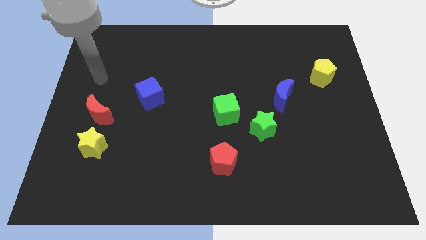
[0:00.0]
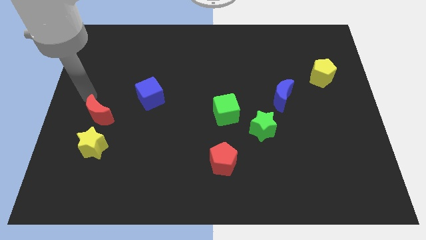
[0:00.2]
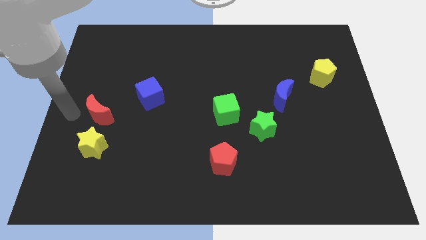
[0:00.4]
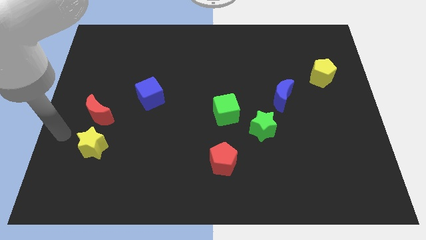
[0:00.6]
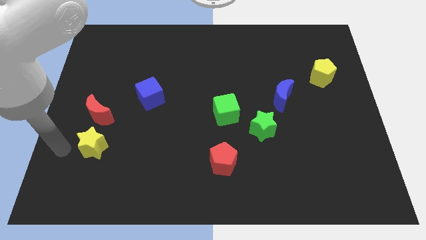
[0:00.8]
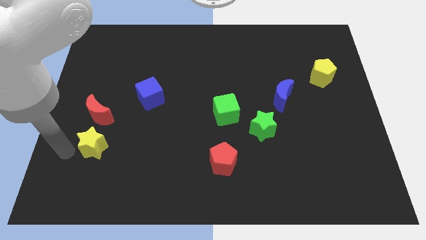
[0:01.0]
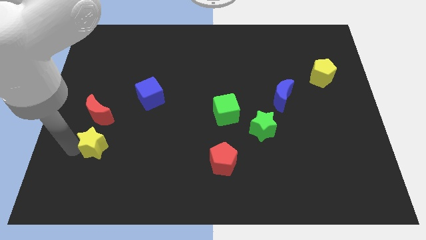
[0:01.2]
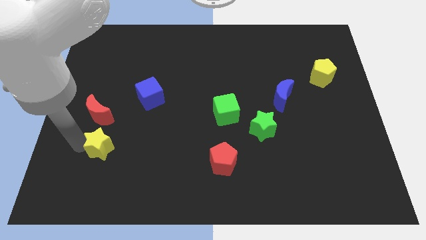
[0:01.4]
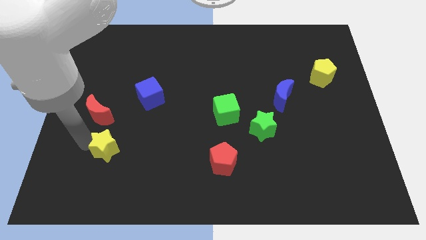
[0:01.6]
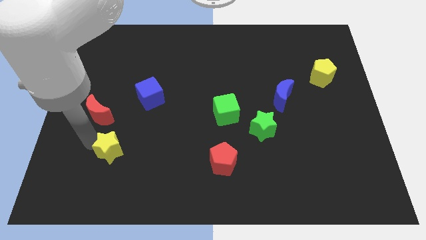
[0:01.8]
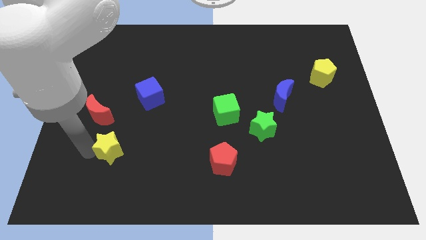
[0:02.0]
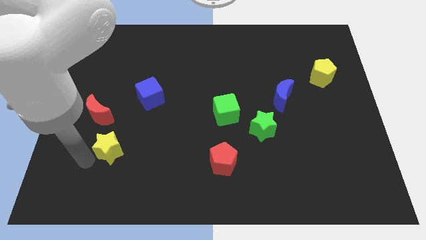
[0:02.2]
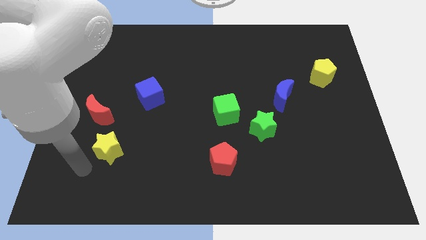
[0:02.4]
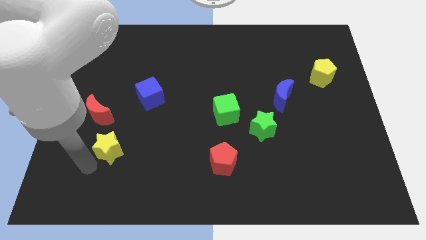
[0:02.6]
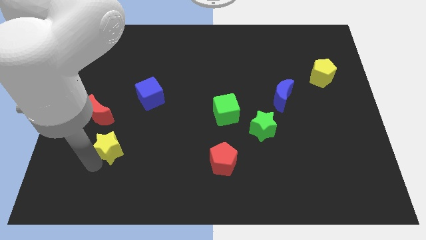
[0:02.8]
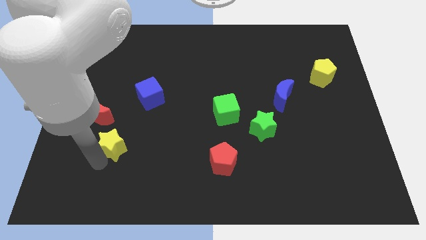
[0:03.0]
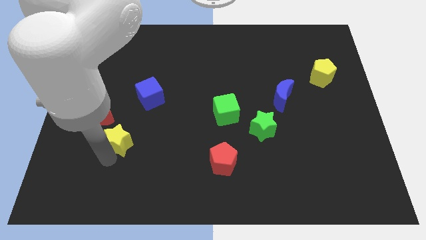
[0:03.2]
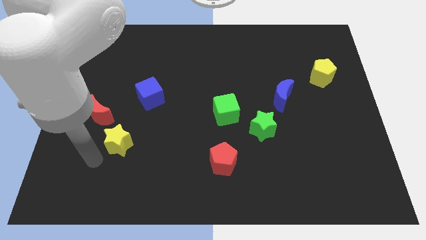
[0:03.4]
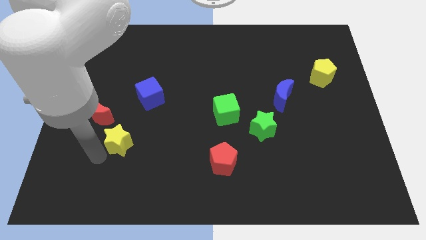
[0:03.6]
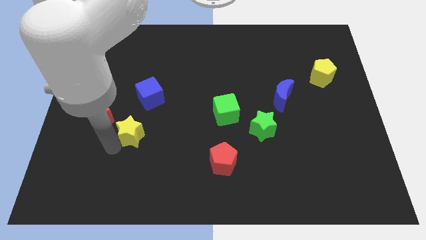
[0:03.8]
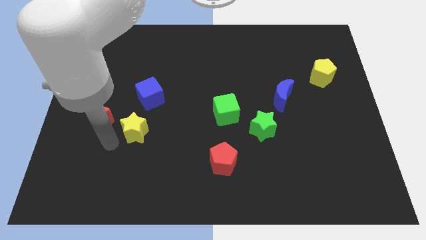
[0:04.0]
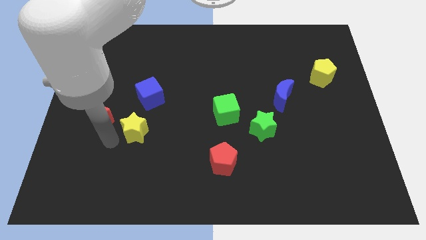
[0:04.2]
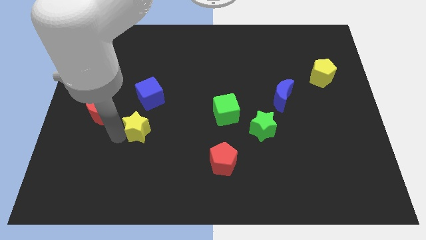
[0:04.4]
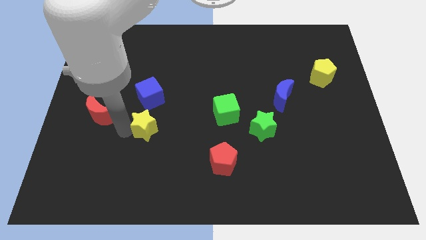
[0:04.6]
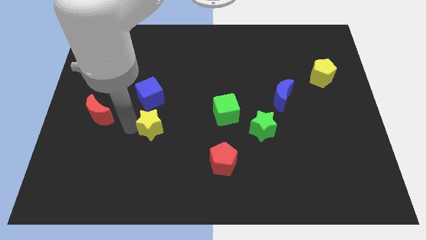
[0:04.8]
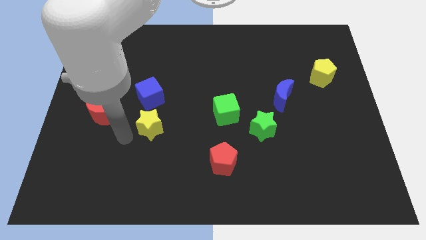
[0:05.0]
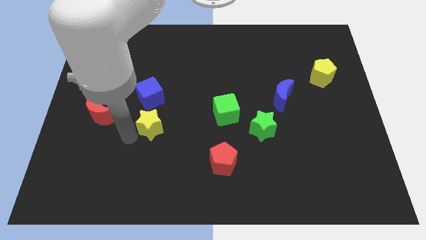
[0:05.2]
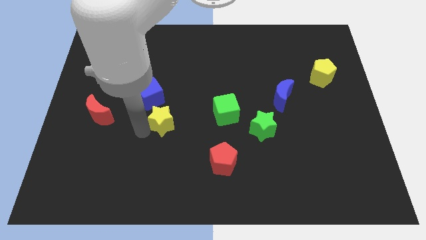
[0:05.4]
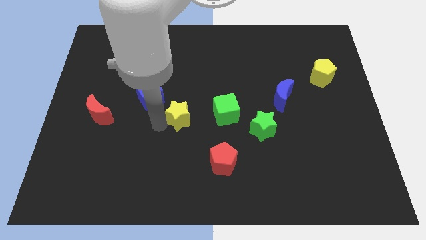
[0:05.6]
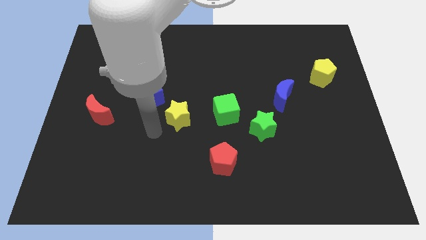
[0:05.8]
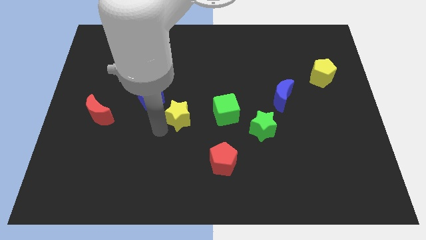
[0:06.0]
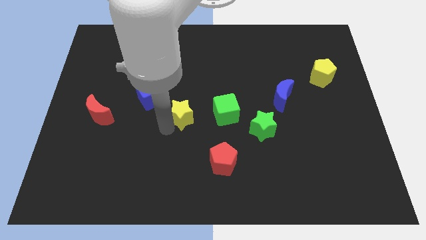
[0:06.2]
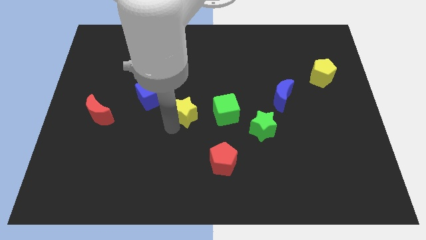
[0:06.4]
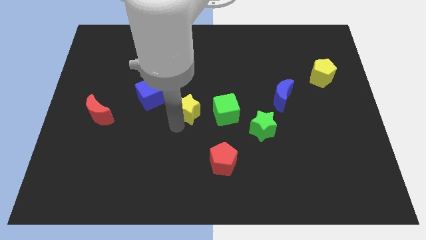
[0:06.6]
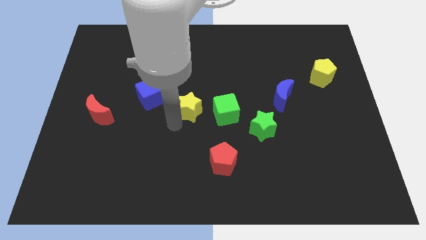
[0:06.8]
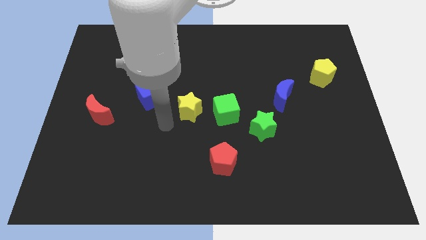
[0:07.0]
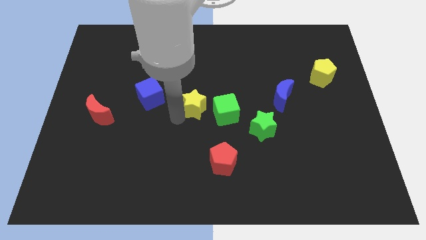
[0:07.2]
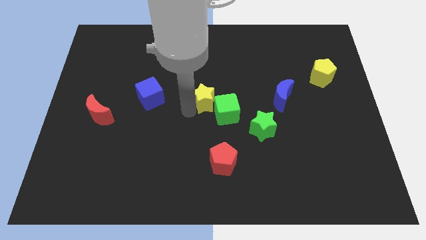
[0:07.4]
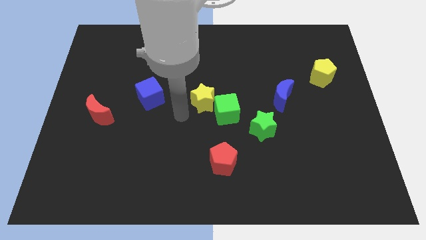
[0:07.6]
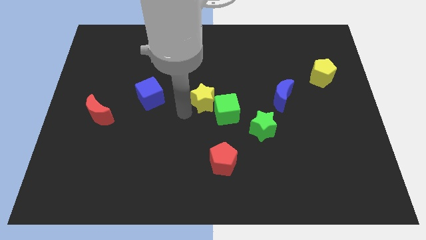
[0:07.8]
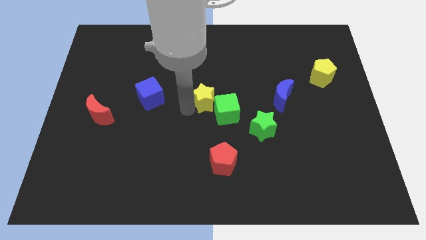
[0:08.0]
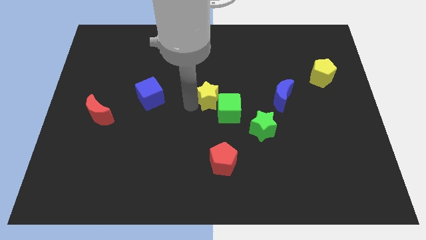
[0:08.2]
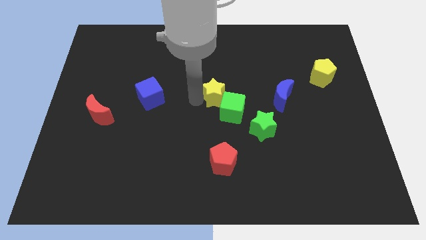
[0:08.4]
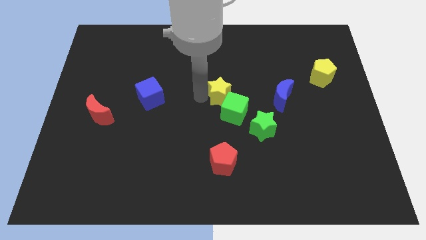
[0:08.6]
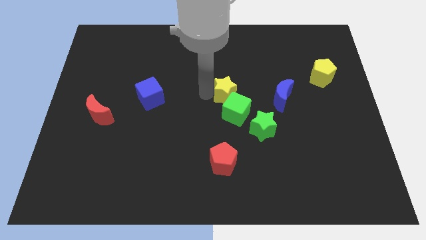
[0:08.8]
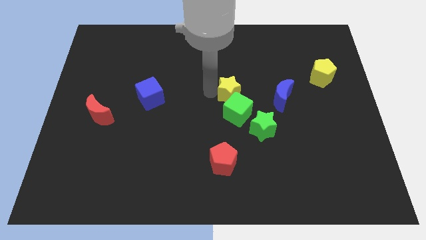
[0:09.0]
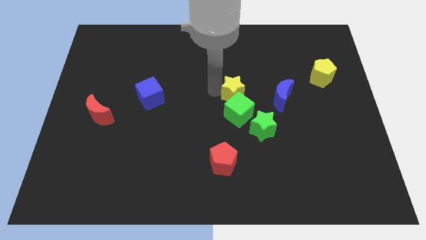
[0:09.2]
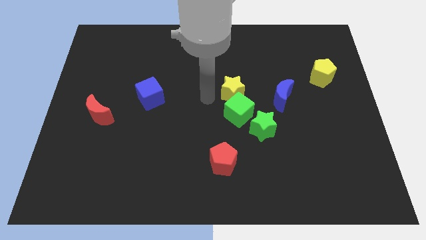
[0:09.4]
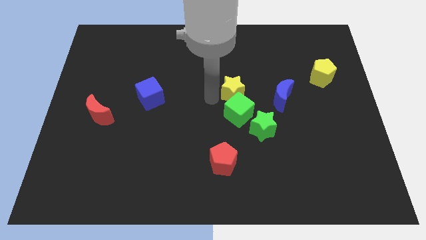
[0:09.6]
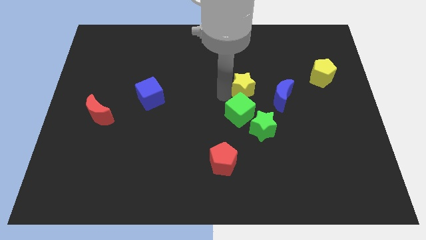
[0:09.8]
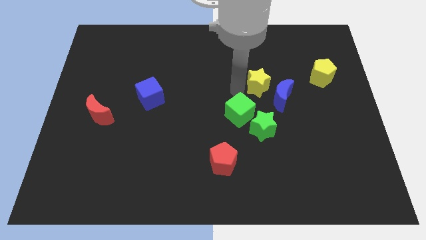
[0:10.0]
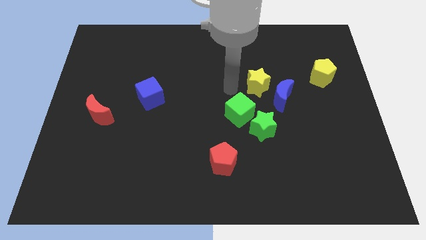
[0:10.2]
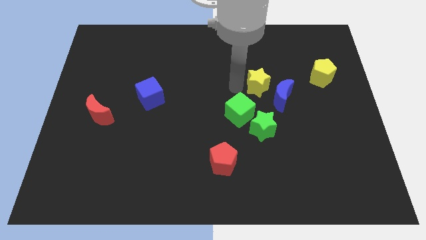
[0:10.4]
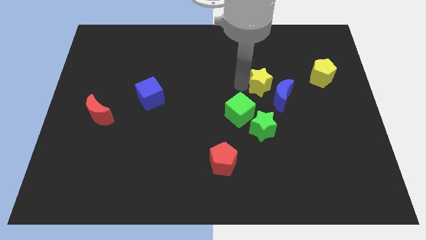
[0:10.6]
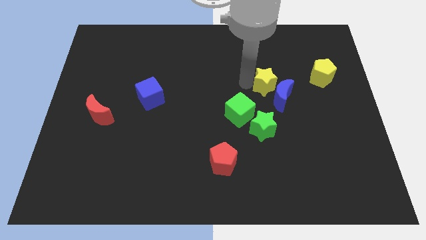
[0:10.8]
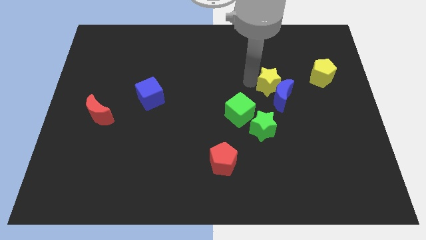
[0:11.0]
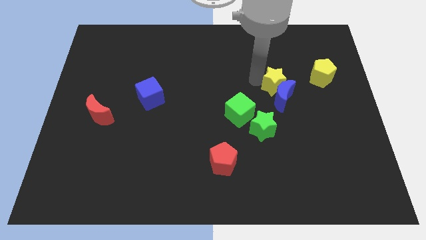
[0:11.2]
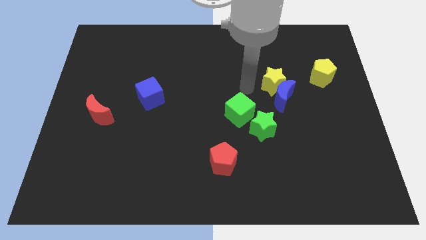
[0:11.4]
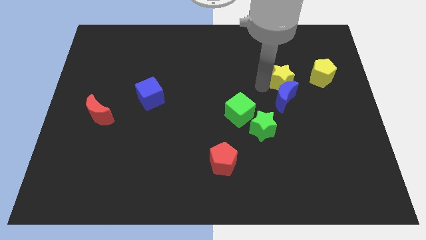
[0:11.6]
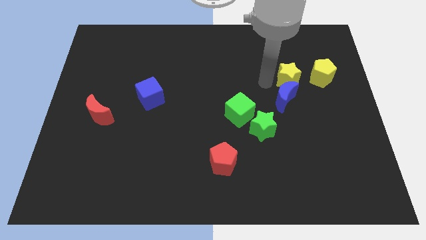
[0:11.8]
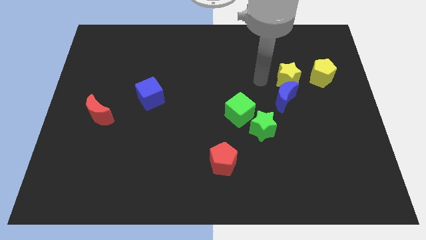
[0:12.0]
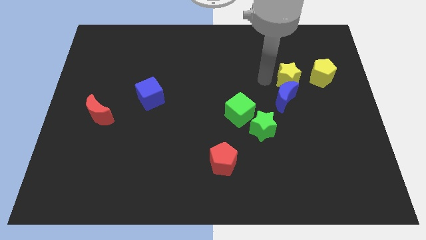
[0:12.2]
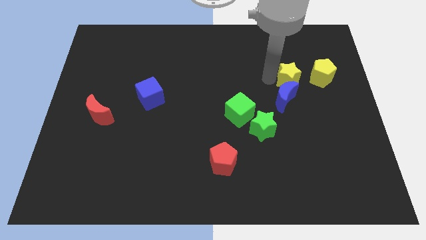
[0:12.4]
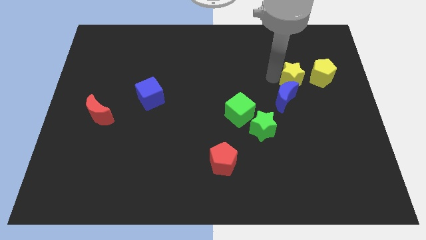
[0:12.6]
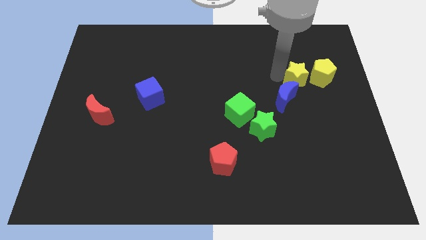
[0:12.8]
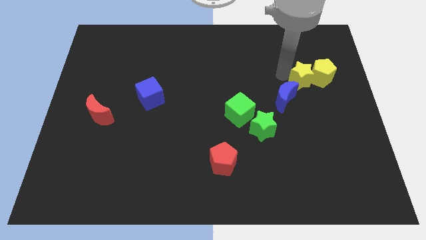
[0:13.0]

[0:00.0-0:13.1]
put the yellow star to the yellow pentagon

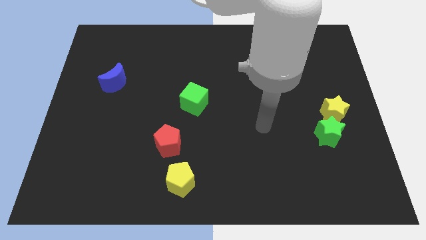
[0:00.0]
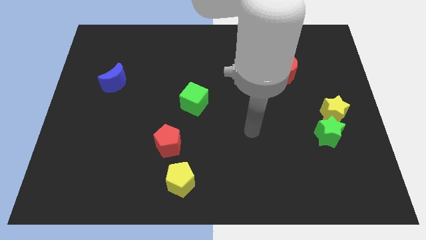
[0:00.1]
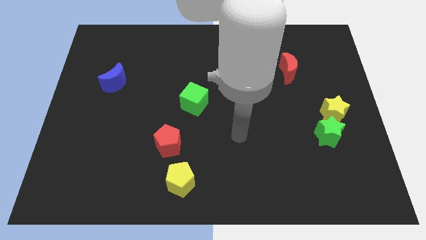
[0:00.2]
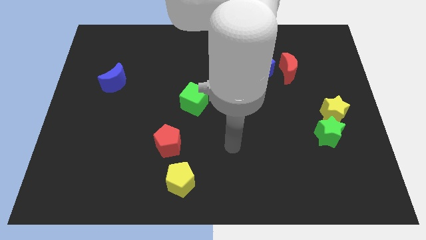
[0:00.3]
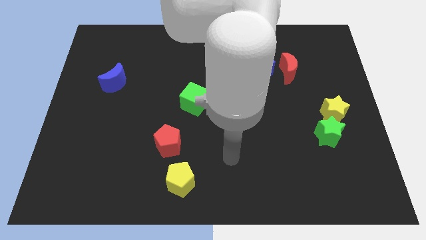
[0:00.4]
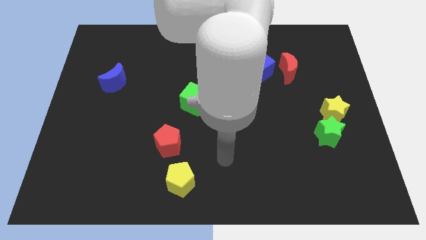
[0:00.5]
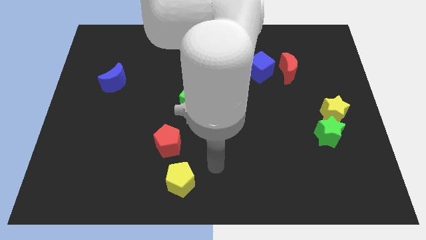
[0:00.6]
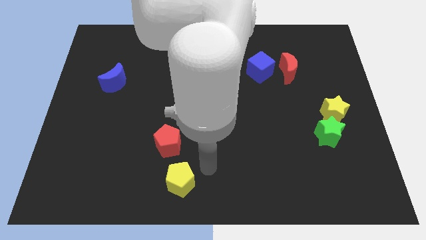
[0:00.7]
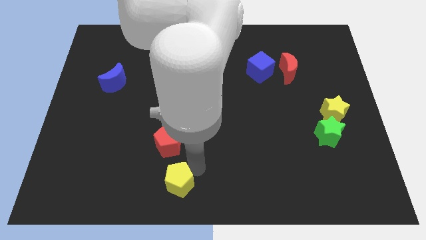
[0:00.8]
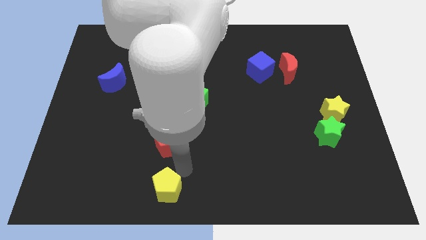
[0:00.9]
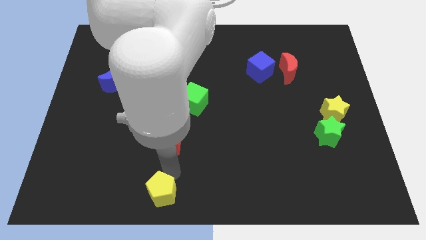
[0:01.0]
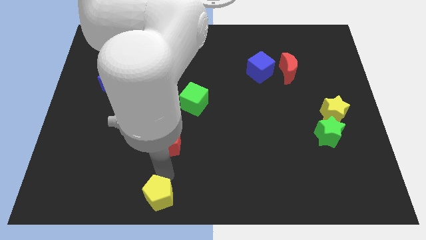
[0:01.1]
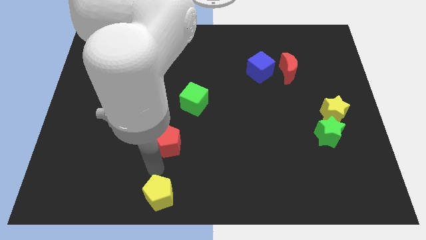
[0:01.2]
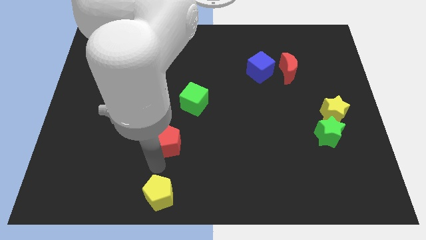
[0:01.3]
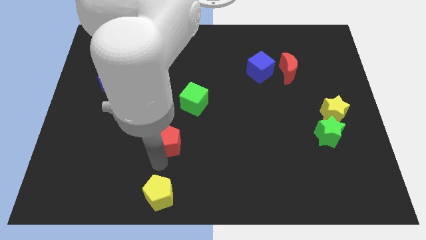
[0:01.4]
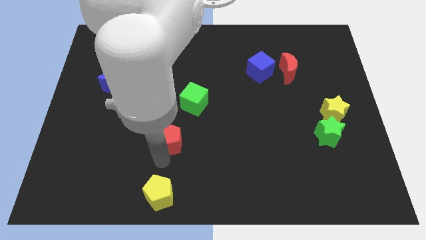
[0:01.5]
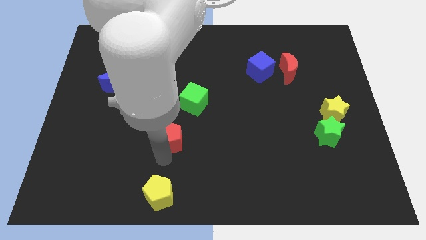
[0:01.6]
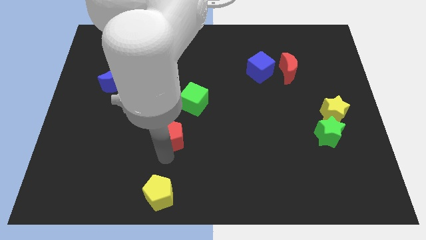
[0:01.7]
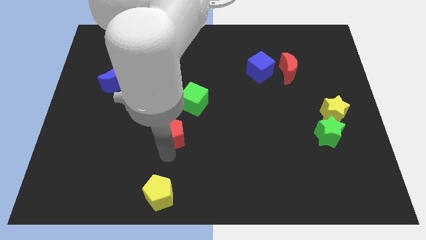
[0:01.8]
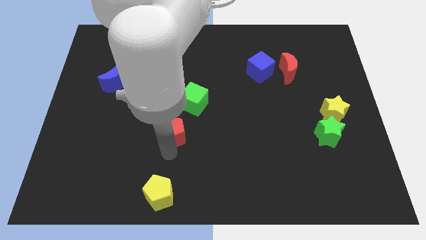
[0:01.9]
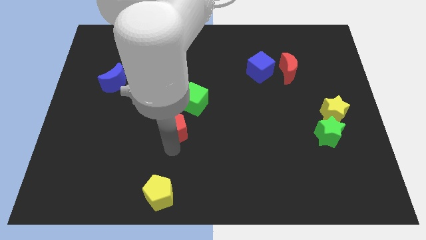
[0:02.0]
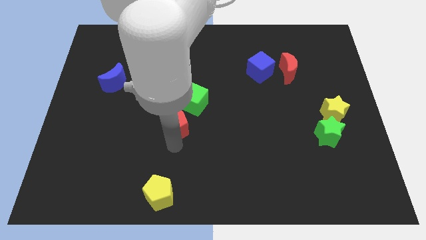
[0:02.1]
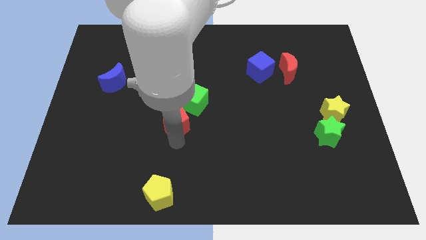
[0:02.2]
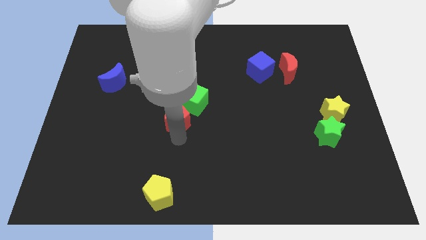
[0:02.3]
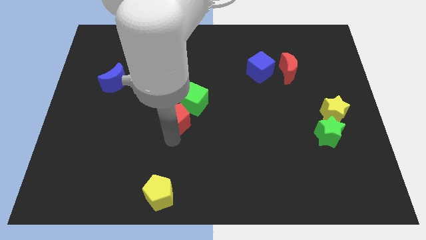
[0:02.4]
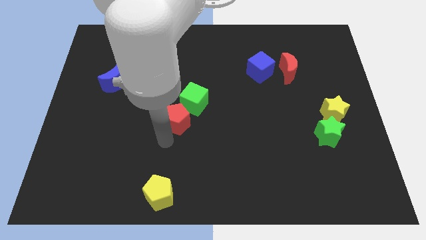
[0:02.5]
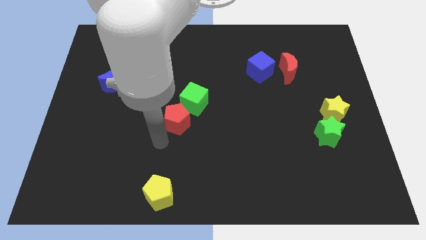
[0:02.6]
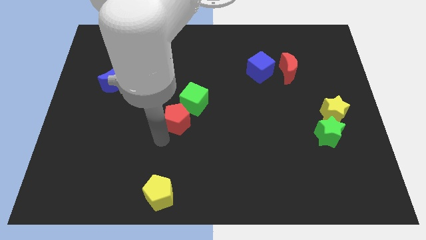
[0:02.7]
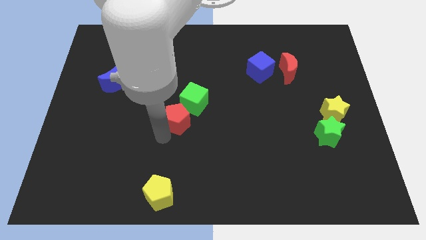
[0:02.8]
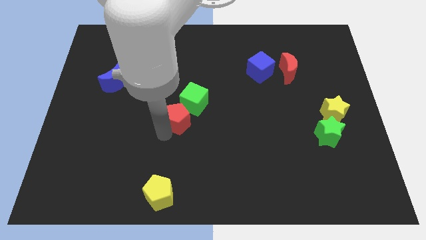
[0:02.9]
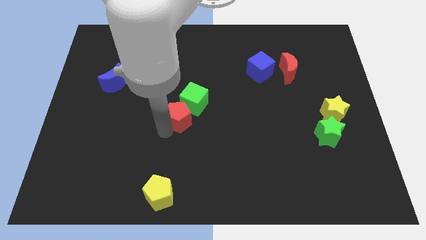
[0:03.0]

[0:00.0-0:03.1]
move the red pentagon to the green cube
